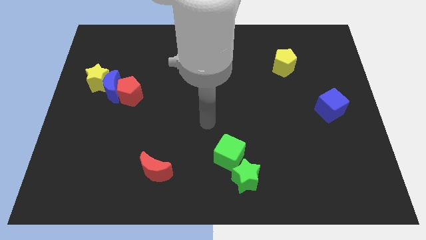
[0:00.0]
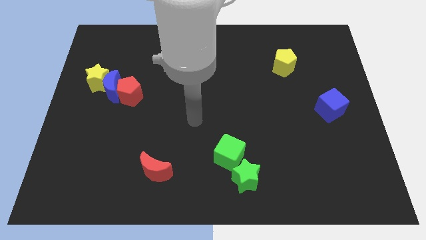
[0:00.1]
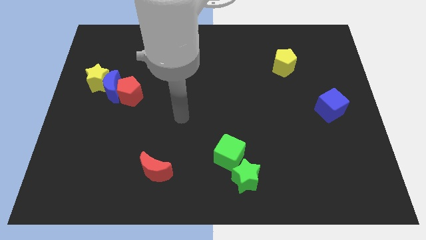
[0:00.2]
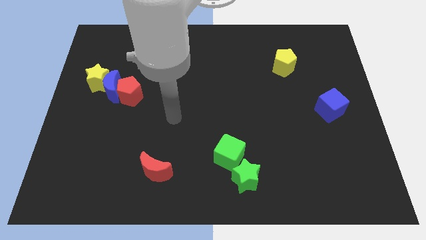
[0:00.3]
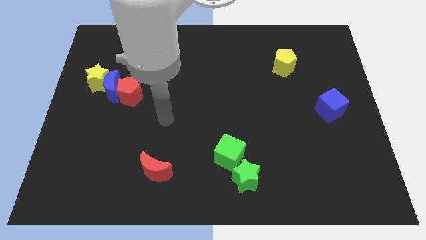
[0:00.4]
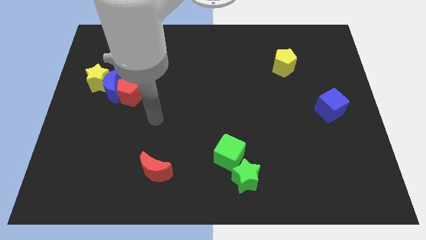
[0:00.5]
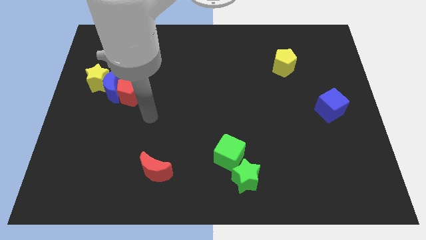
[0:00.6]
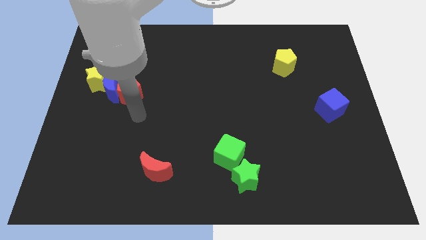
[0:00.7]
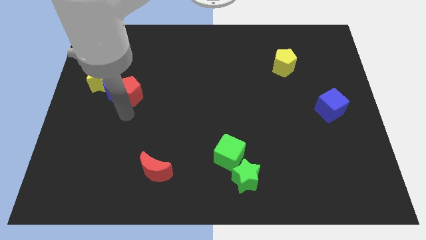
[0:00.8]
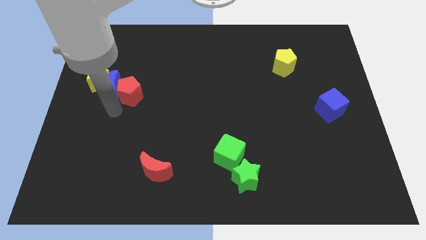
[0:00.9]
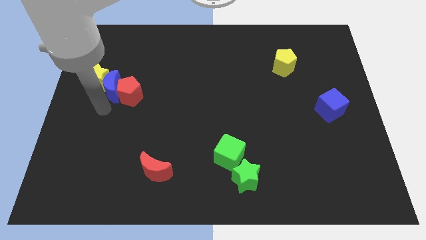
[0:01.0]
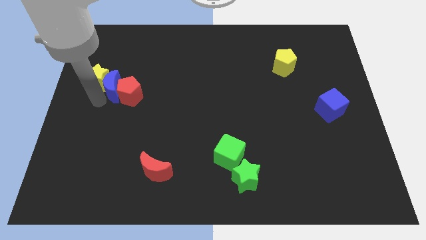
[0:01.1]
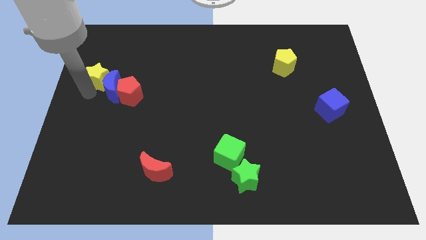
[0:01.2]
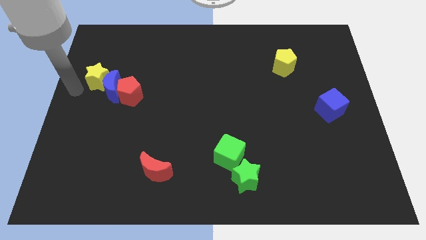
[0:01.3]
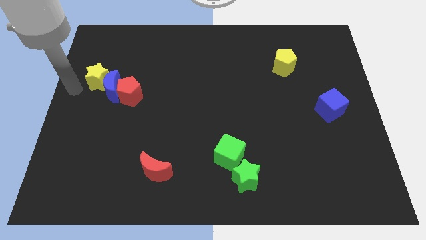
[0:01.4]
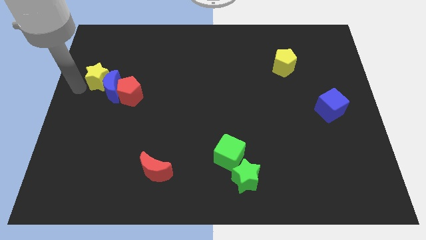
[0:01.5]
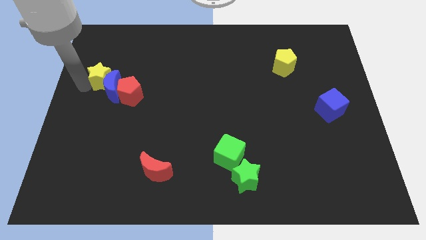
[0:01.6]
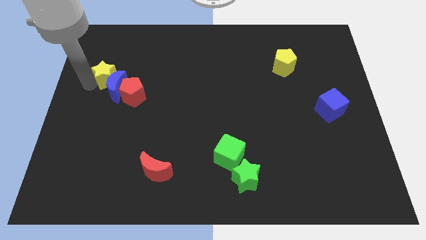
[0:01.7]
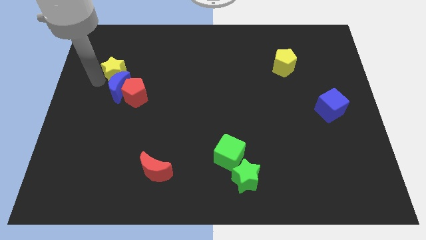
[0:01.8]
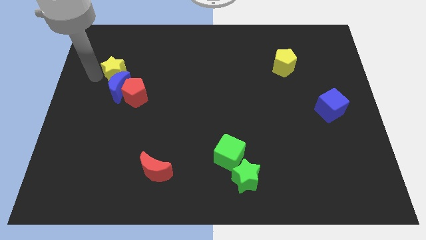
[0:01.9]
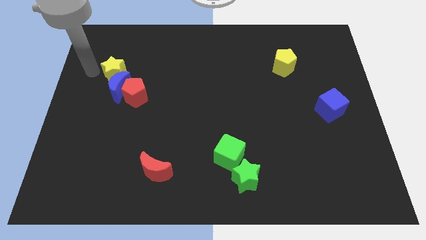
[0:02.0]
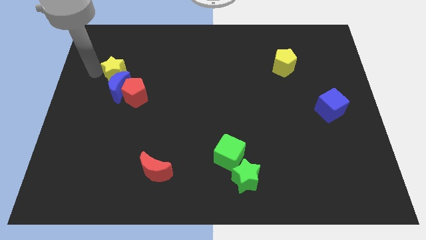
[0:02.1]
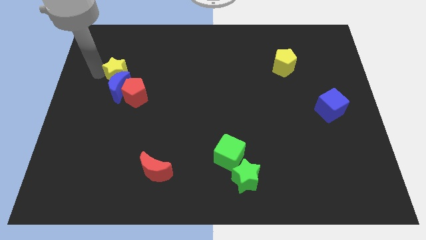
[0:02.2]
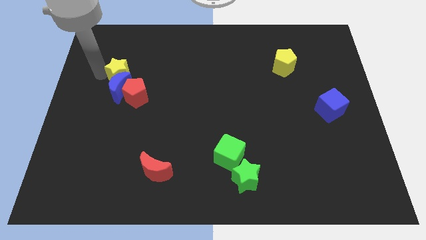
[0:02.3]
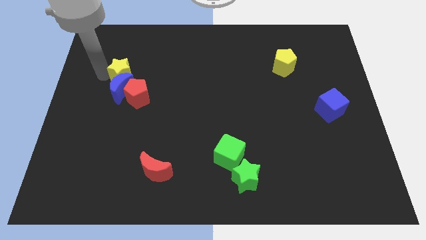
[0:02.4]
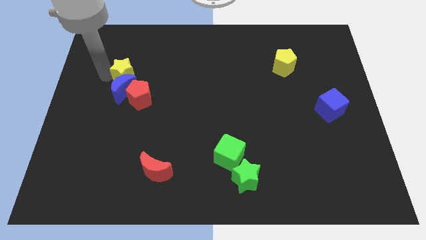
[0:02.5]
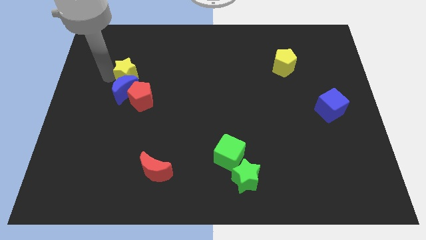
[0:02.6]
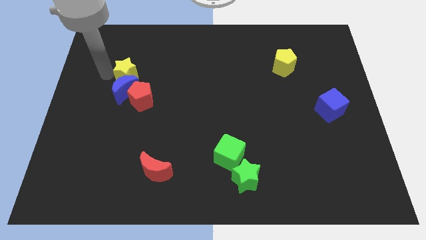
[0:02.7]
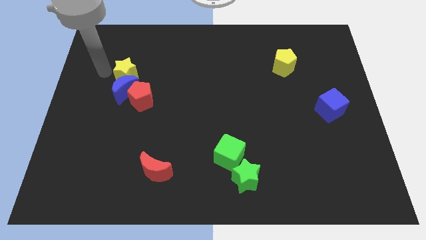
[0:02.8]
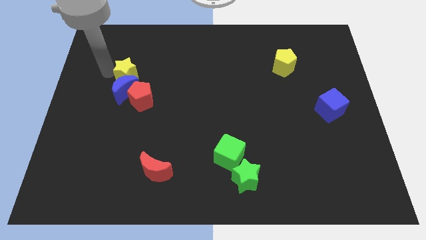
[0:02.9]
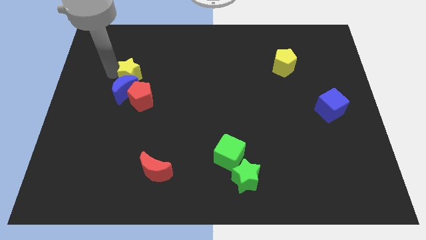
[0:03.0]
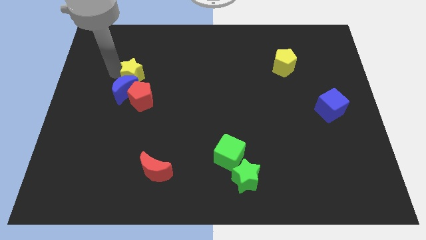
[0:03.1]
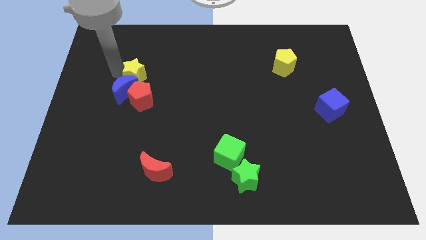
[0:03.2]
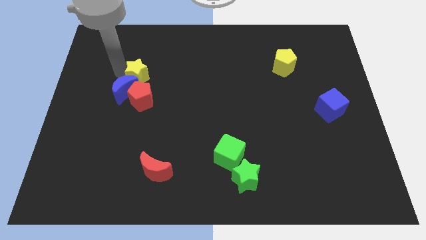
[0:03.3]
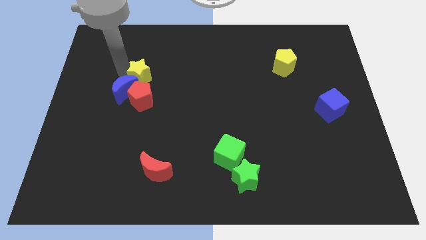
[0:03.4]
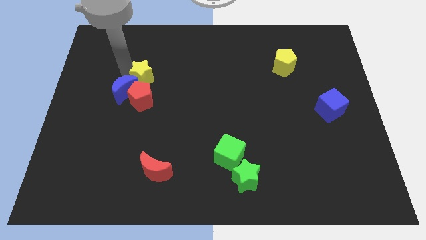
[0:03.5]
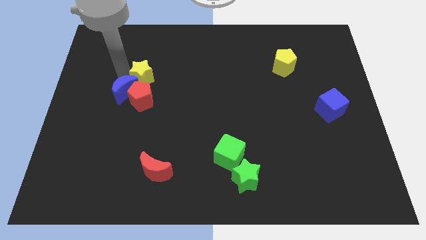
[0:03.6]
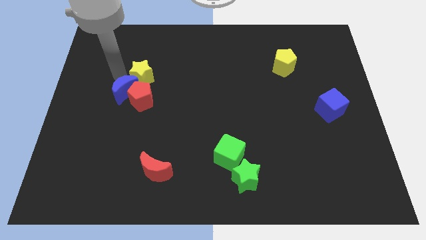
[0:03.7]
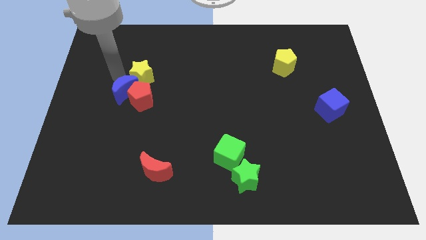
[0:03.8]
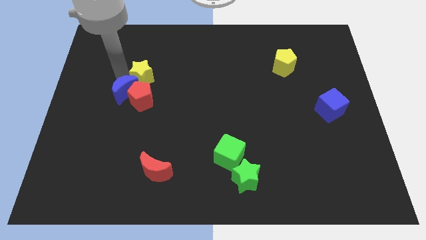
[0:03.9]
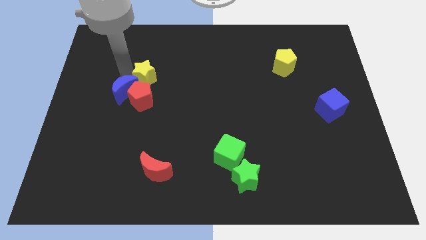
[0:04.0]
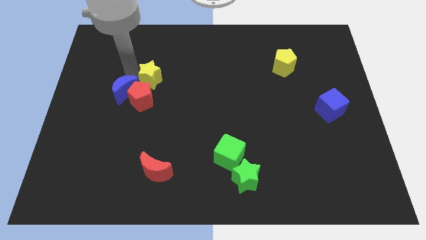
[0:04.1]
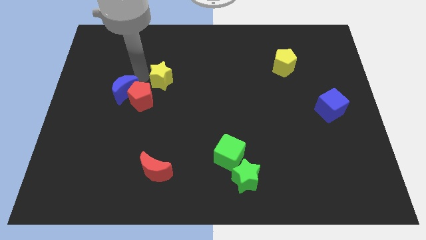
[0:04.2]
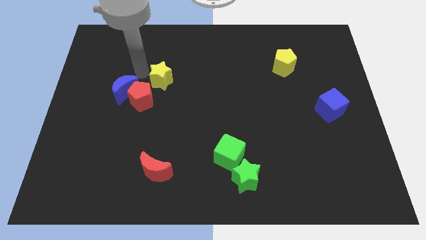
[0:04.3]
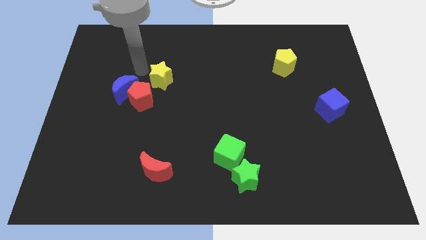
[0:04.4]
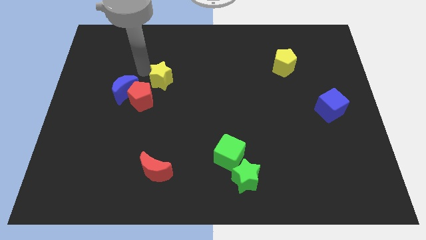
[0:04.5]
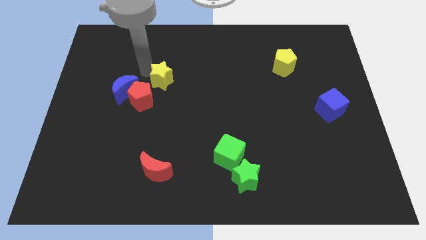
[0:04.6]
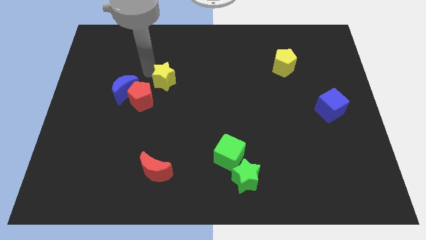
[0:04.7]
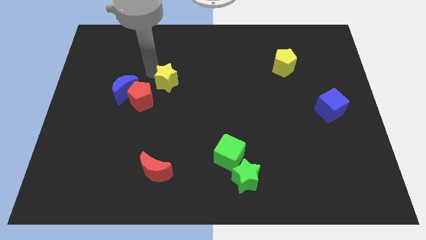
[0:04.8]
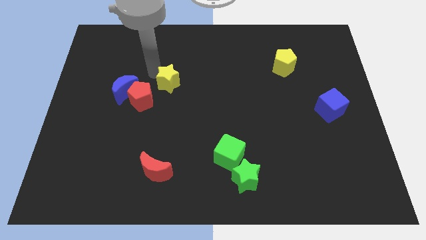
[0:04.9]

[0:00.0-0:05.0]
slide the yellow star to the middle of the board

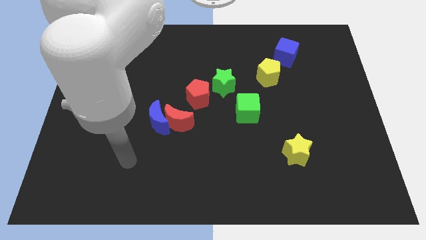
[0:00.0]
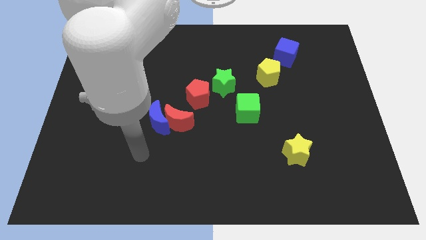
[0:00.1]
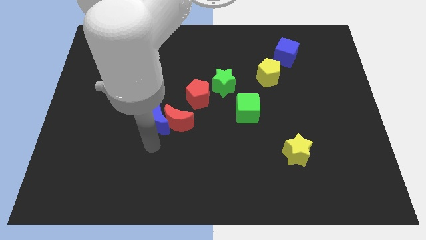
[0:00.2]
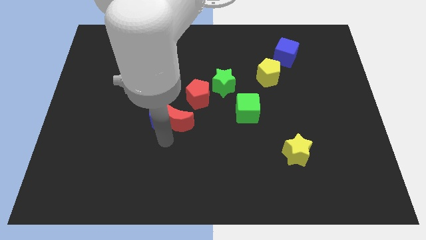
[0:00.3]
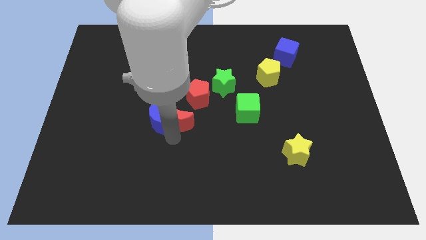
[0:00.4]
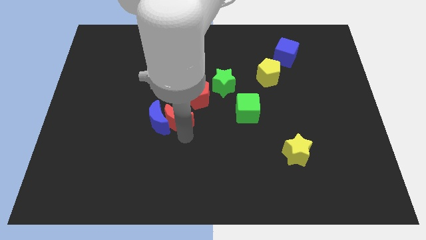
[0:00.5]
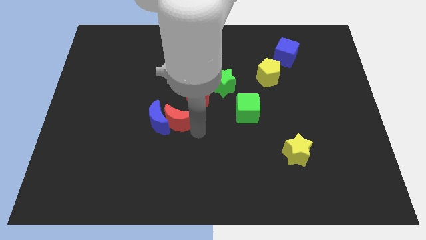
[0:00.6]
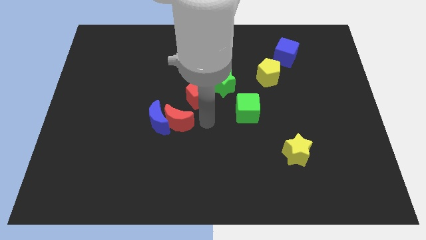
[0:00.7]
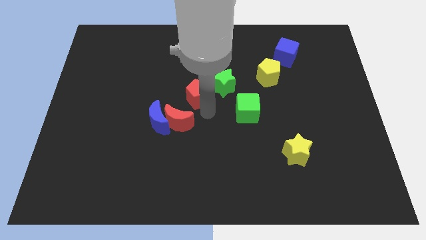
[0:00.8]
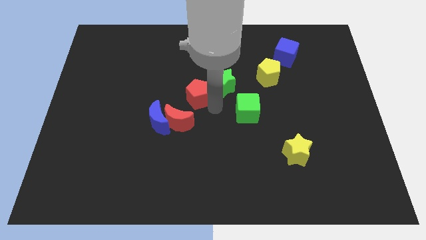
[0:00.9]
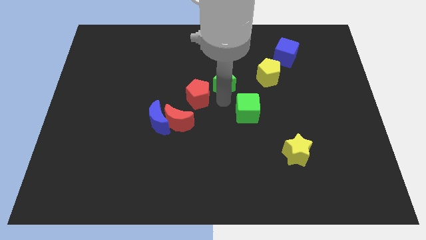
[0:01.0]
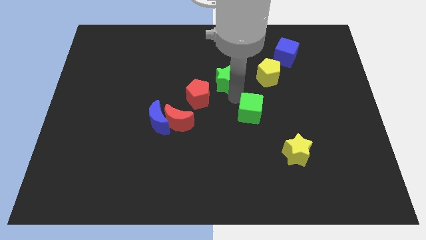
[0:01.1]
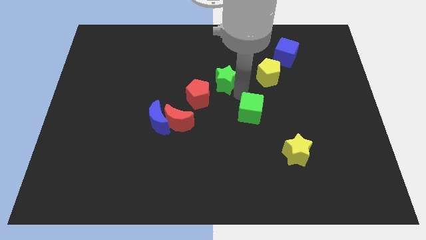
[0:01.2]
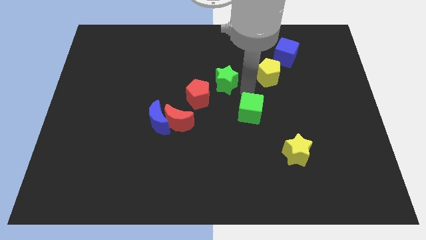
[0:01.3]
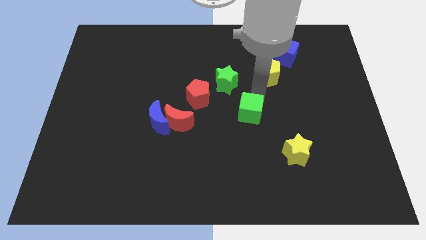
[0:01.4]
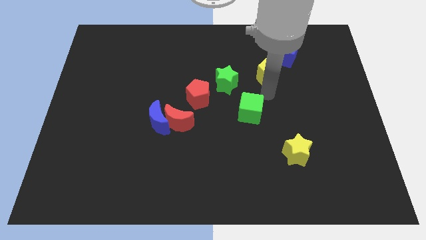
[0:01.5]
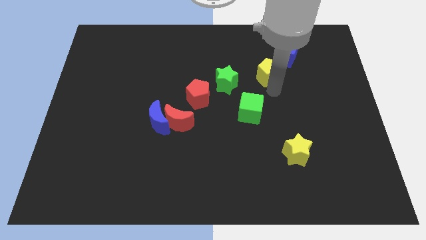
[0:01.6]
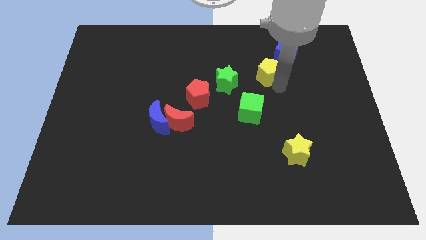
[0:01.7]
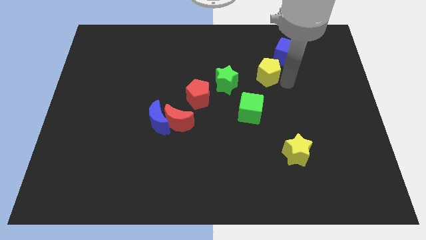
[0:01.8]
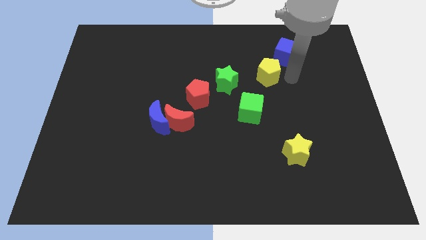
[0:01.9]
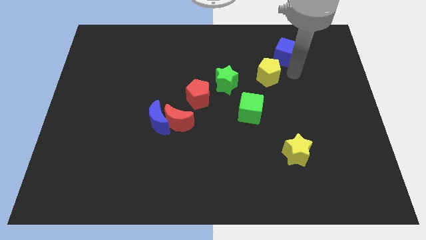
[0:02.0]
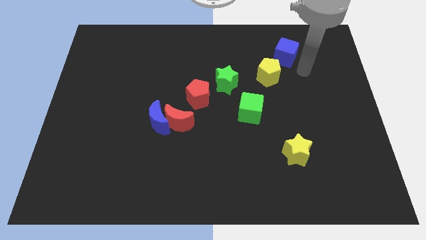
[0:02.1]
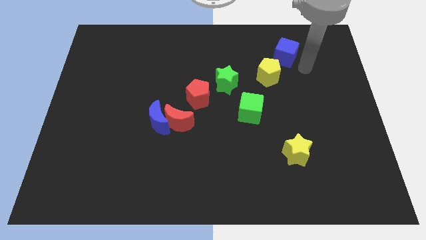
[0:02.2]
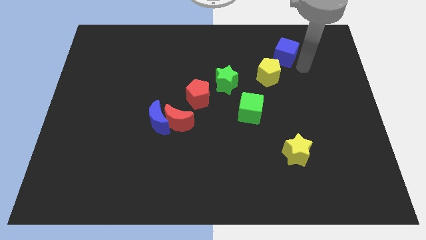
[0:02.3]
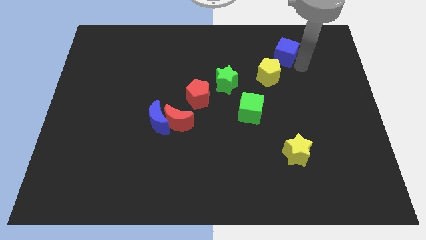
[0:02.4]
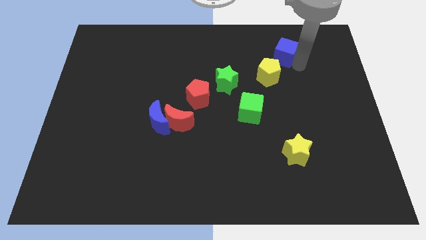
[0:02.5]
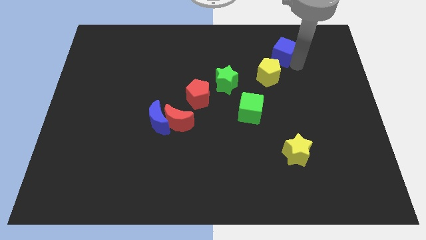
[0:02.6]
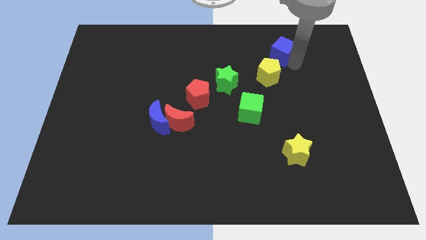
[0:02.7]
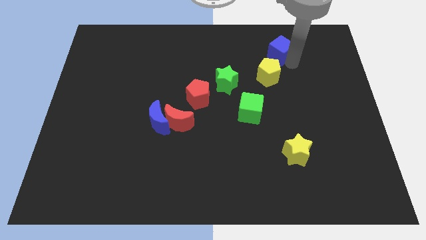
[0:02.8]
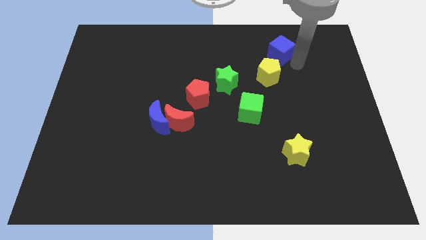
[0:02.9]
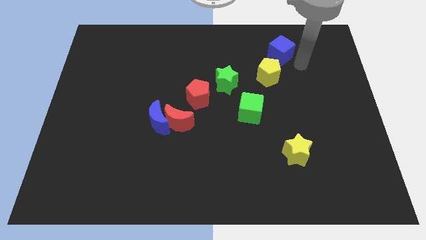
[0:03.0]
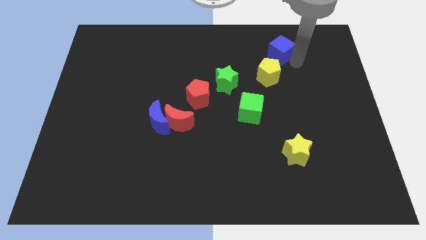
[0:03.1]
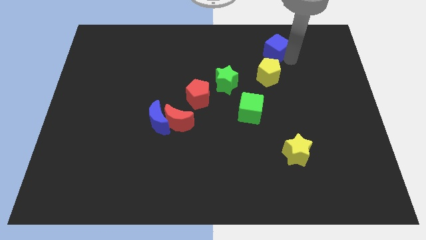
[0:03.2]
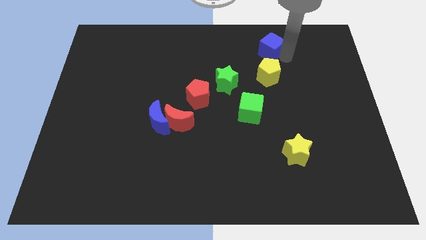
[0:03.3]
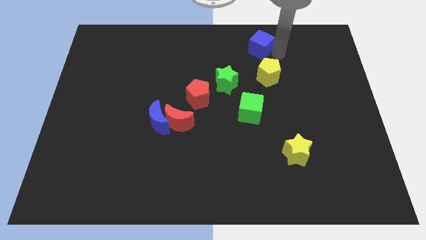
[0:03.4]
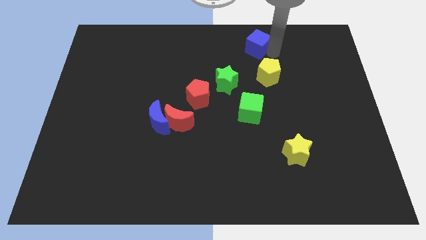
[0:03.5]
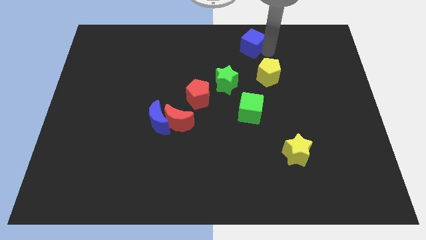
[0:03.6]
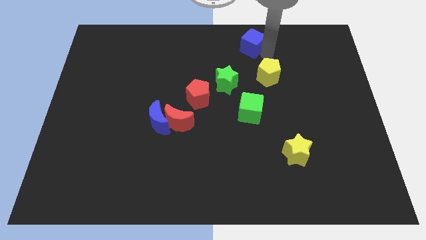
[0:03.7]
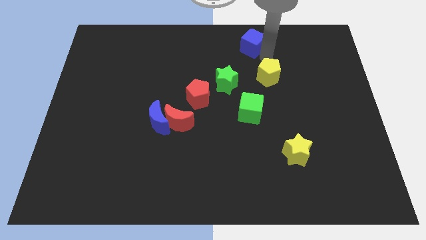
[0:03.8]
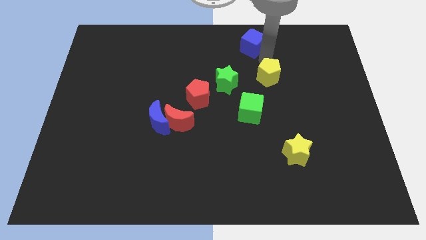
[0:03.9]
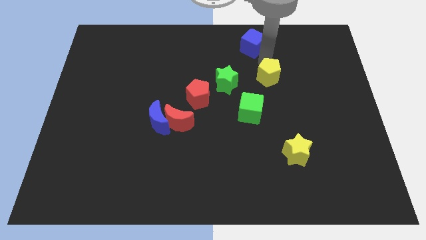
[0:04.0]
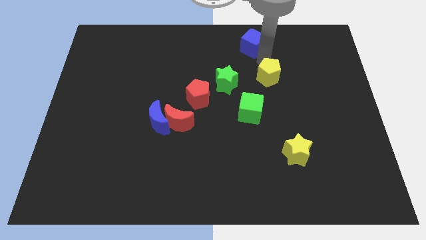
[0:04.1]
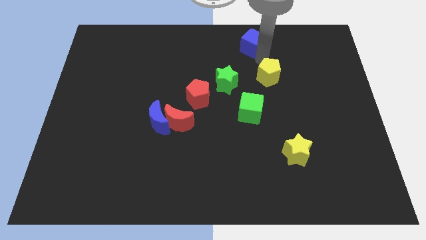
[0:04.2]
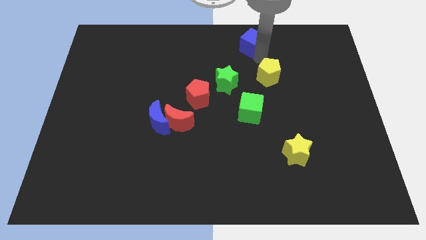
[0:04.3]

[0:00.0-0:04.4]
move the blue cube to the top
